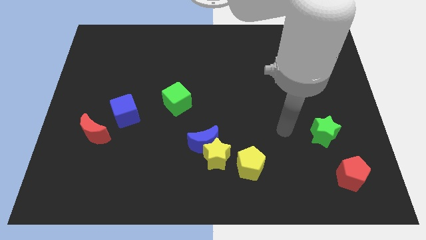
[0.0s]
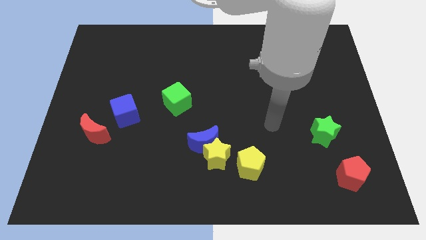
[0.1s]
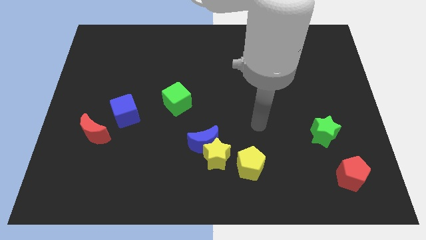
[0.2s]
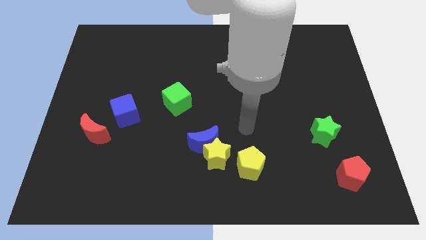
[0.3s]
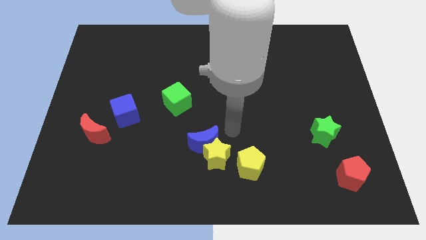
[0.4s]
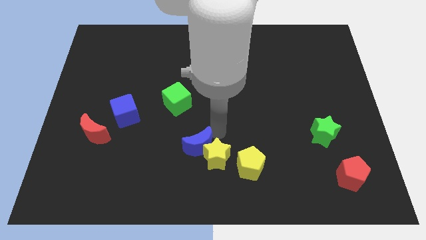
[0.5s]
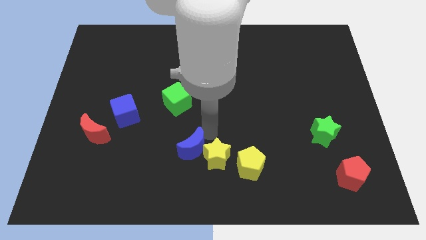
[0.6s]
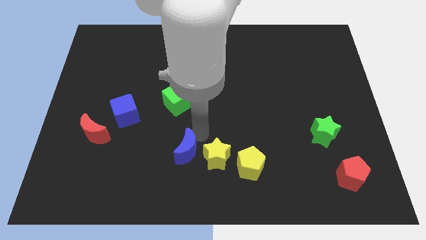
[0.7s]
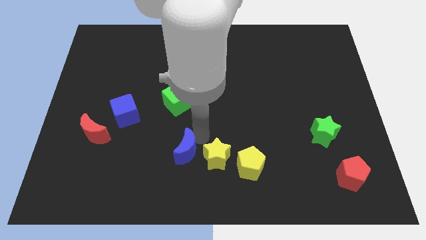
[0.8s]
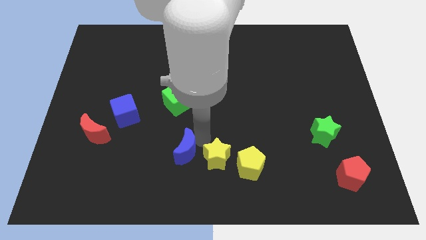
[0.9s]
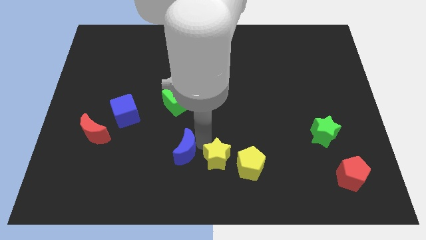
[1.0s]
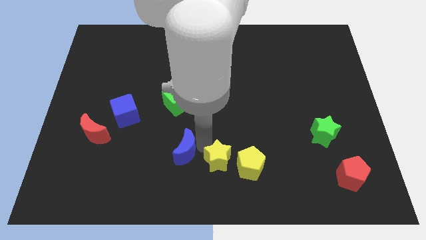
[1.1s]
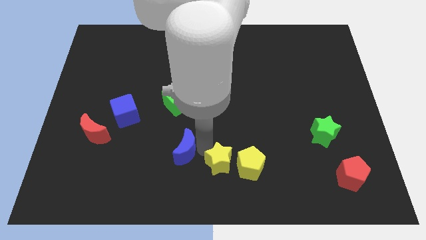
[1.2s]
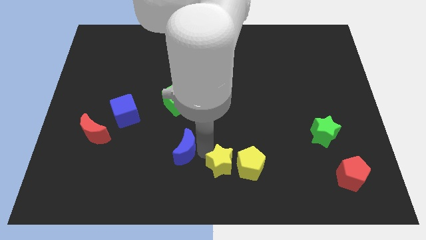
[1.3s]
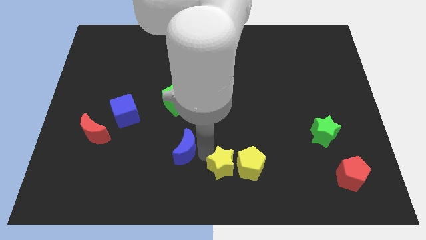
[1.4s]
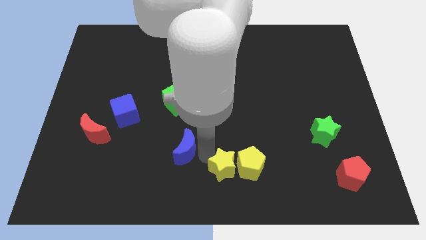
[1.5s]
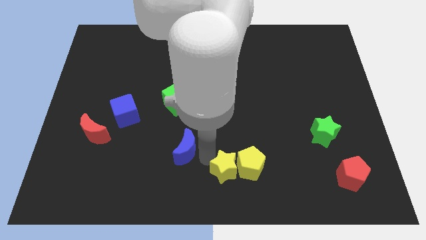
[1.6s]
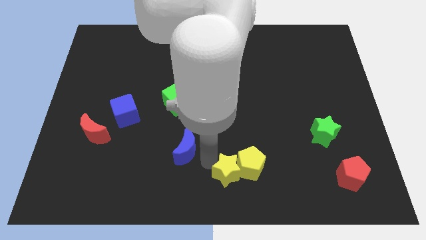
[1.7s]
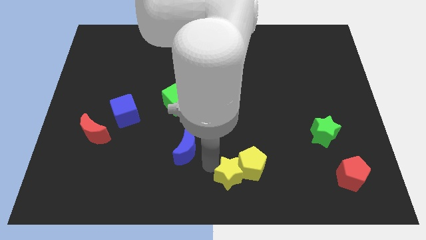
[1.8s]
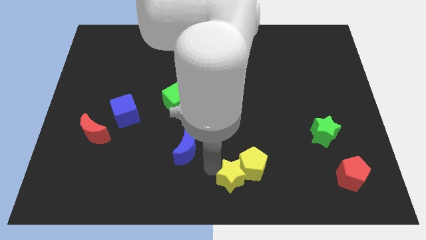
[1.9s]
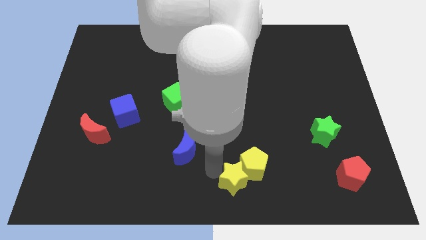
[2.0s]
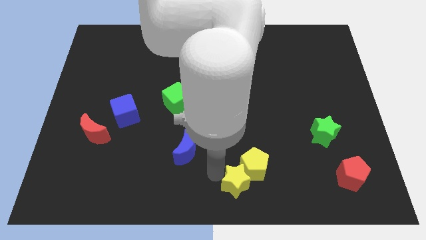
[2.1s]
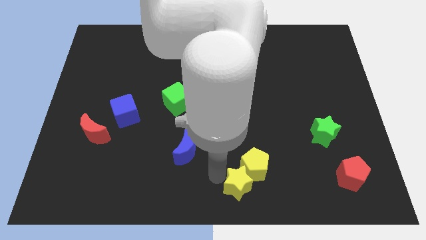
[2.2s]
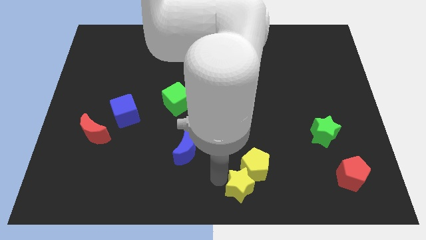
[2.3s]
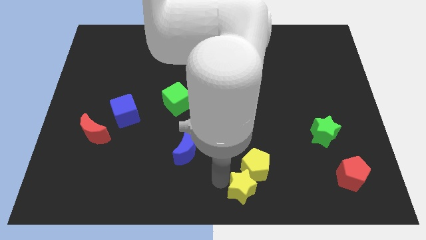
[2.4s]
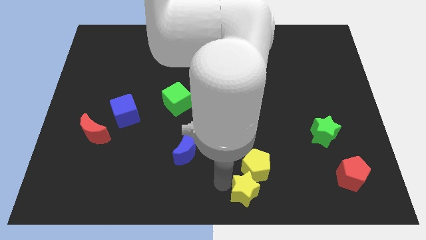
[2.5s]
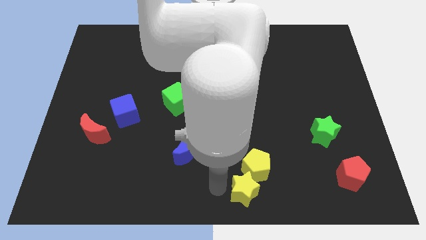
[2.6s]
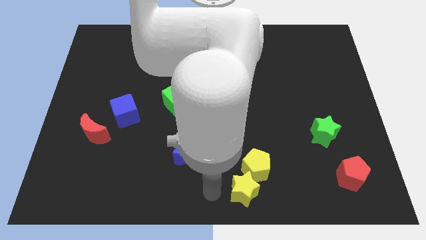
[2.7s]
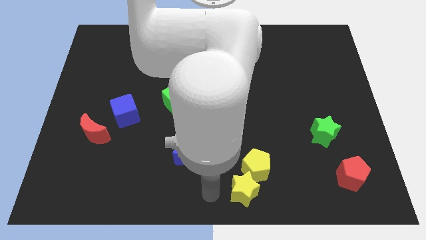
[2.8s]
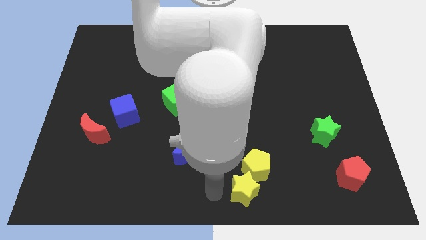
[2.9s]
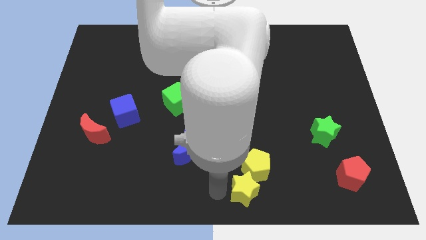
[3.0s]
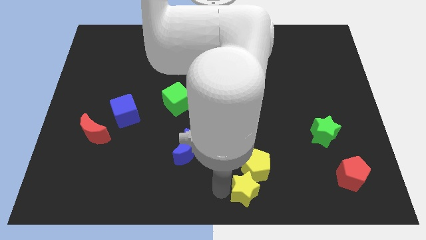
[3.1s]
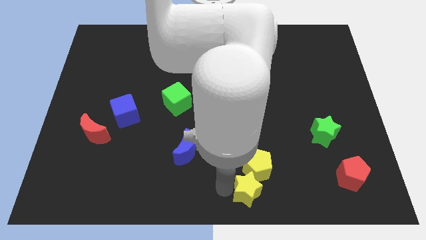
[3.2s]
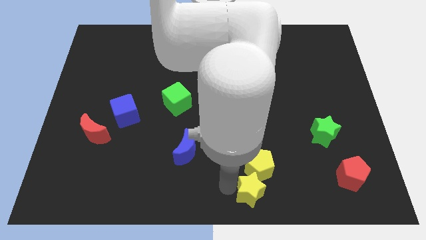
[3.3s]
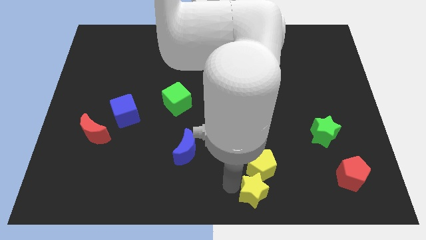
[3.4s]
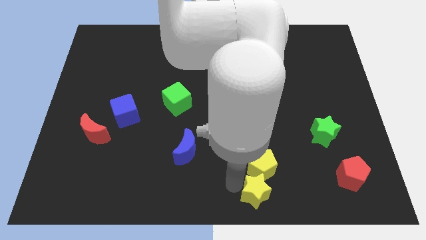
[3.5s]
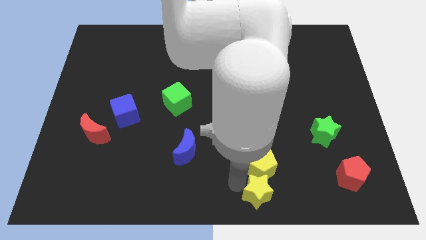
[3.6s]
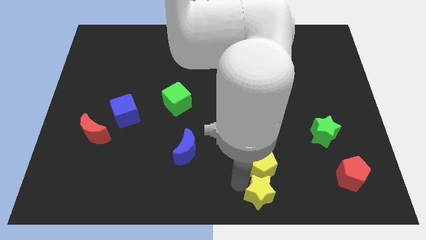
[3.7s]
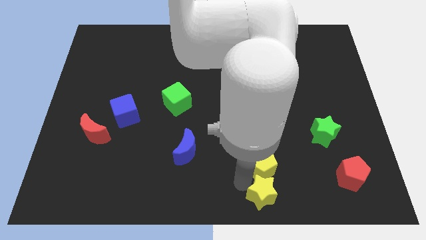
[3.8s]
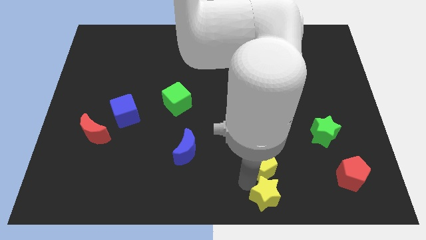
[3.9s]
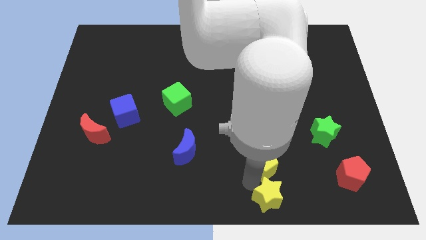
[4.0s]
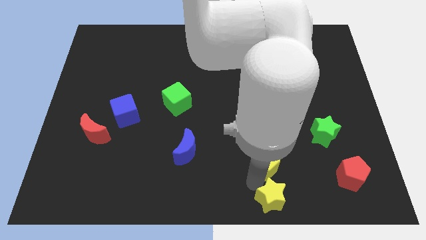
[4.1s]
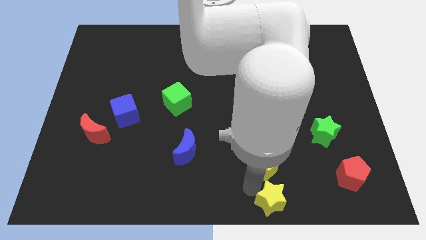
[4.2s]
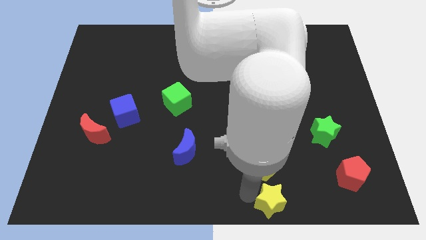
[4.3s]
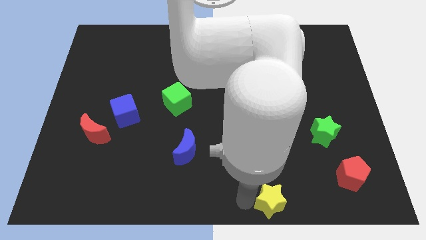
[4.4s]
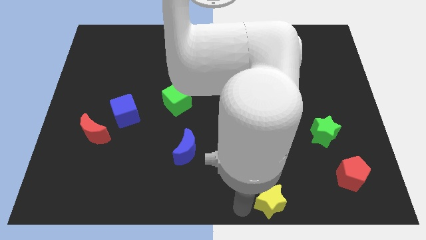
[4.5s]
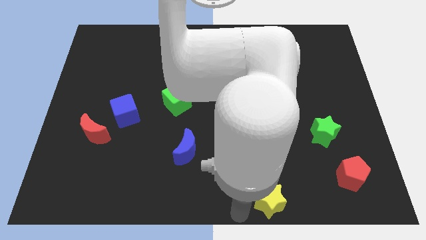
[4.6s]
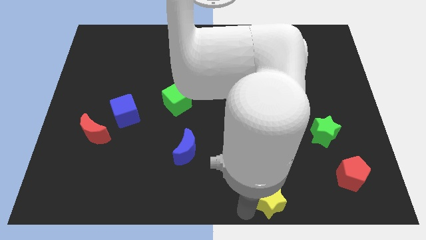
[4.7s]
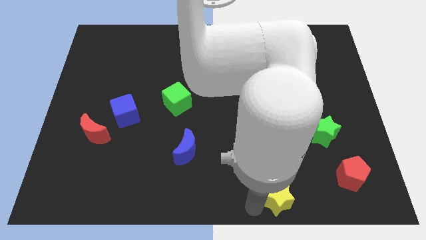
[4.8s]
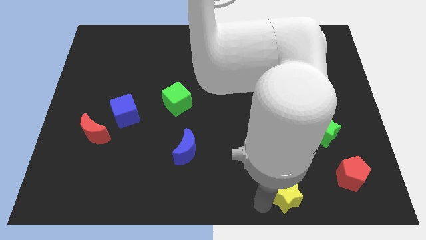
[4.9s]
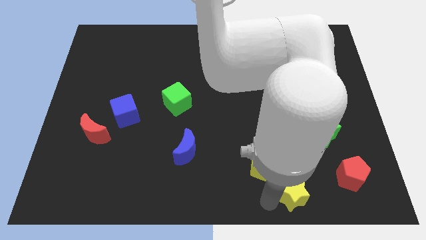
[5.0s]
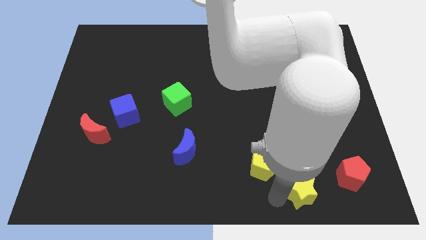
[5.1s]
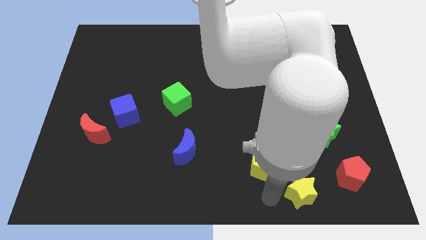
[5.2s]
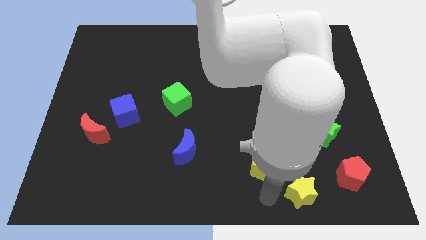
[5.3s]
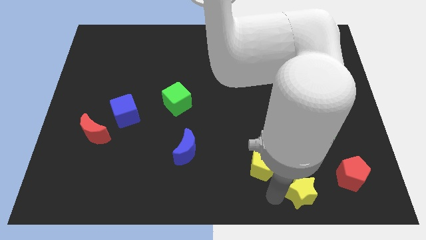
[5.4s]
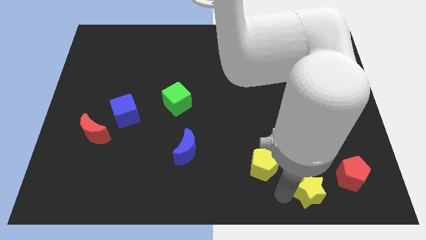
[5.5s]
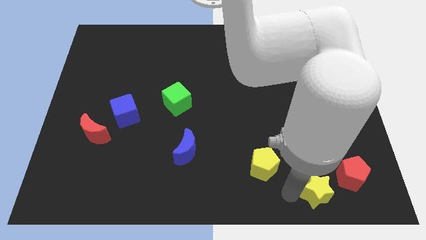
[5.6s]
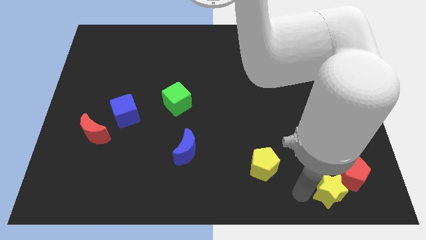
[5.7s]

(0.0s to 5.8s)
push the yellow star next to the red pentagon

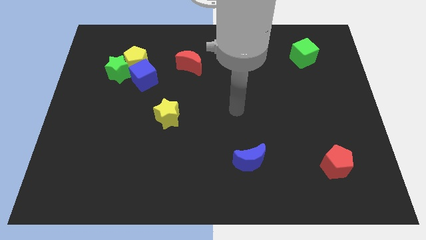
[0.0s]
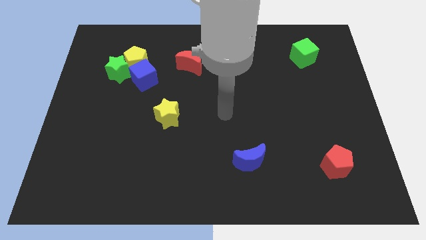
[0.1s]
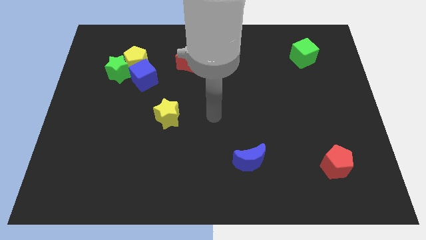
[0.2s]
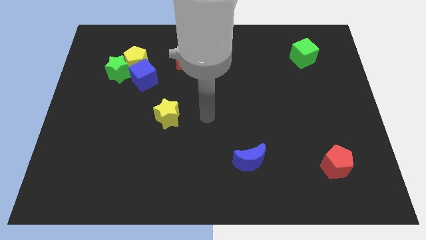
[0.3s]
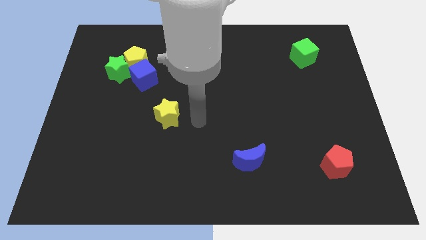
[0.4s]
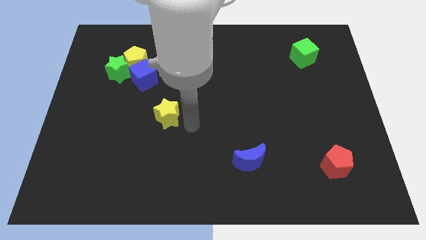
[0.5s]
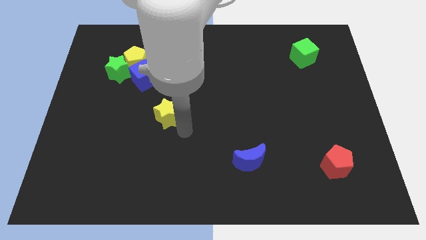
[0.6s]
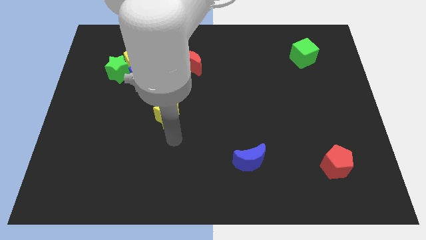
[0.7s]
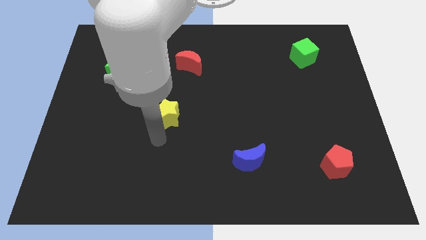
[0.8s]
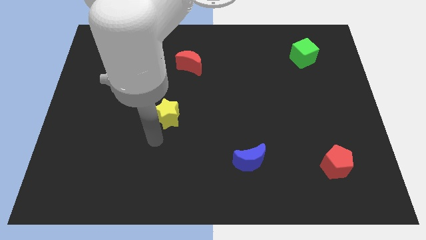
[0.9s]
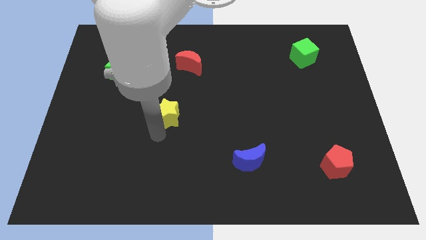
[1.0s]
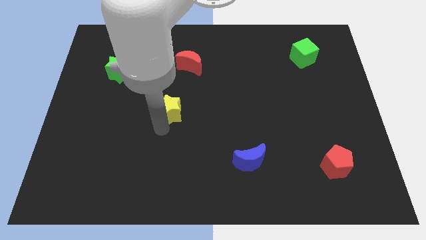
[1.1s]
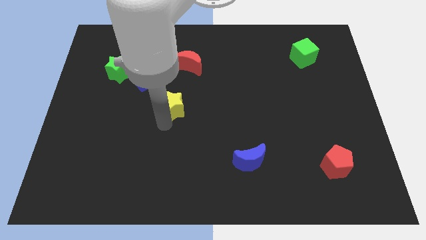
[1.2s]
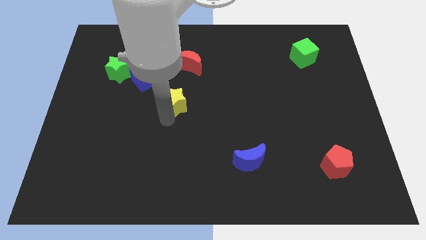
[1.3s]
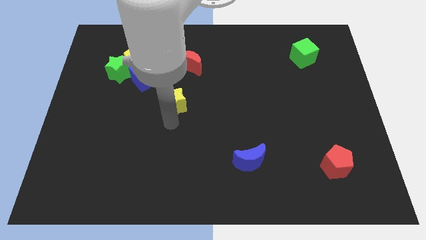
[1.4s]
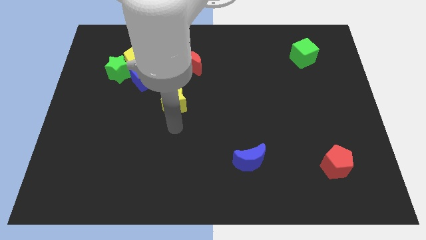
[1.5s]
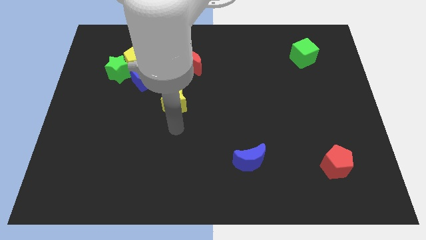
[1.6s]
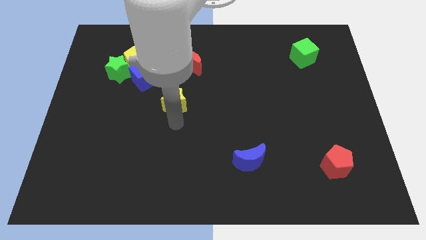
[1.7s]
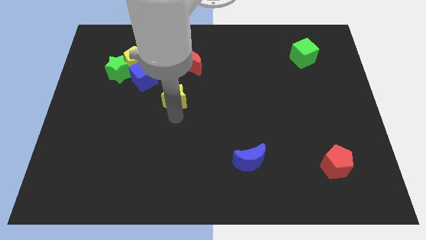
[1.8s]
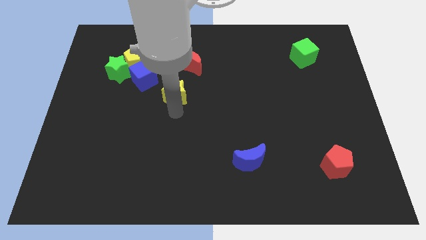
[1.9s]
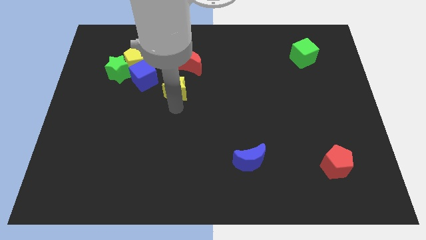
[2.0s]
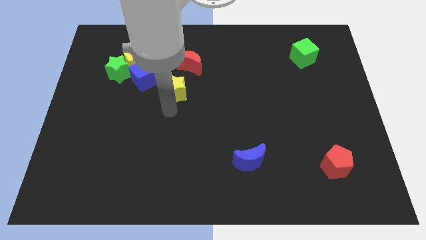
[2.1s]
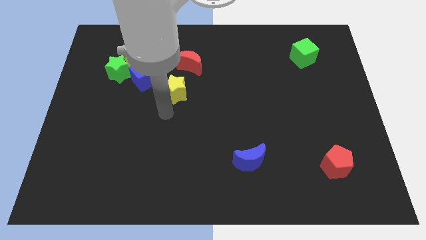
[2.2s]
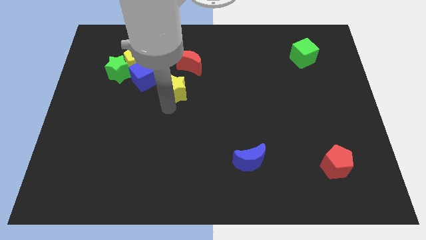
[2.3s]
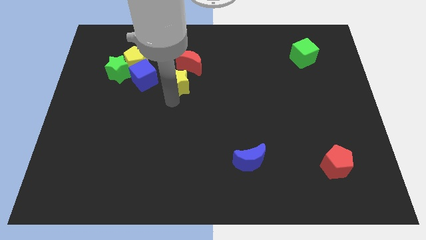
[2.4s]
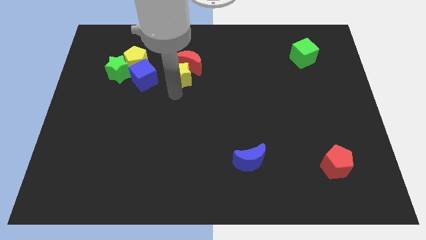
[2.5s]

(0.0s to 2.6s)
put the yellow star to the red moon
